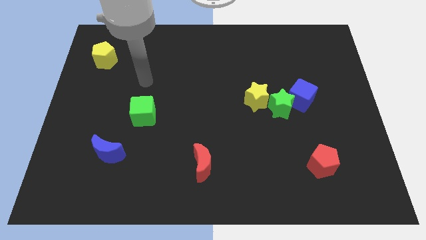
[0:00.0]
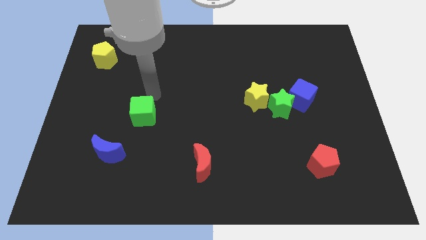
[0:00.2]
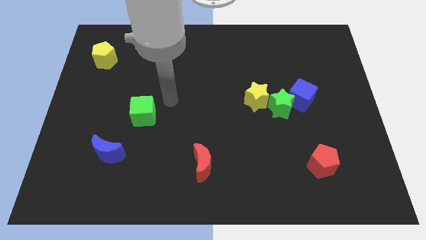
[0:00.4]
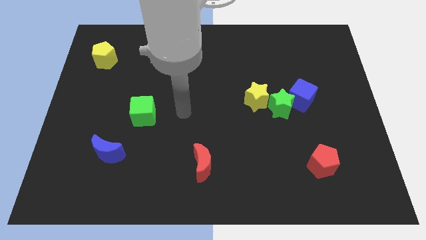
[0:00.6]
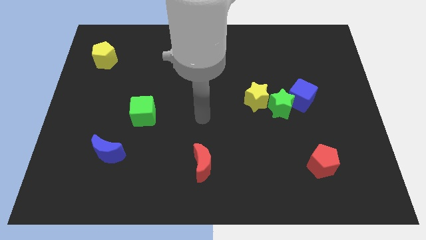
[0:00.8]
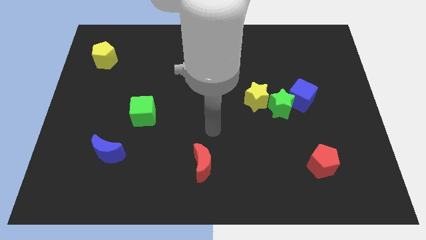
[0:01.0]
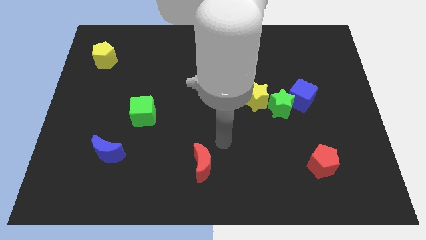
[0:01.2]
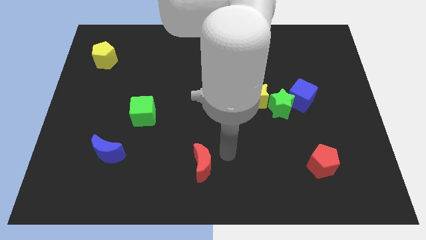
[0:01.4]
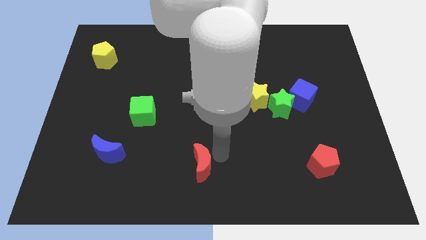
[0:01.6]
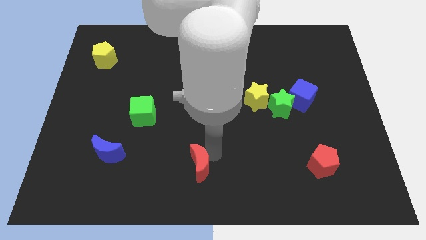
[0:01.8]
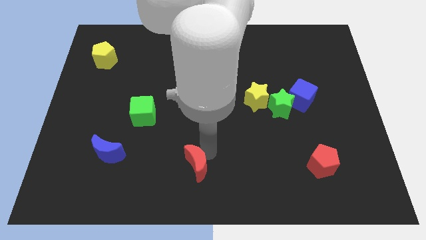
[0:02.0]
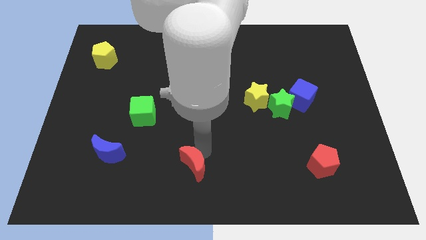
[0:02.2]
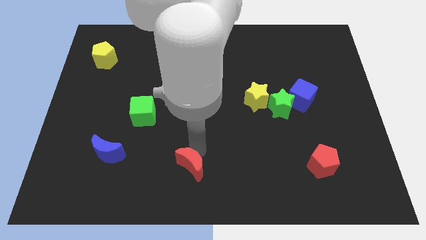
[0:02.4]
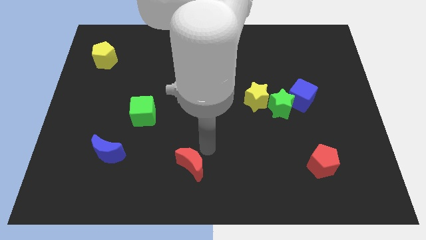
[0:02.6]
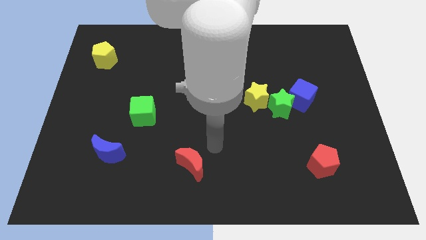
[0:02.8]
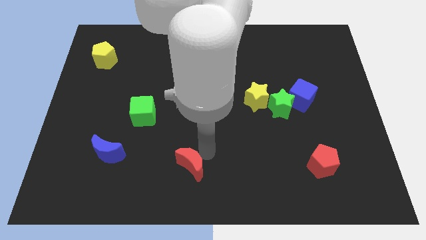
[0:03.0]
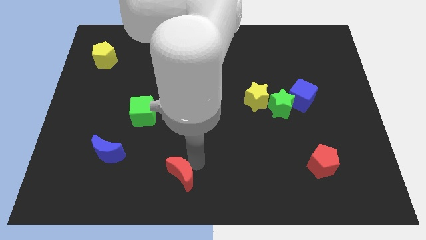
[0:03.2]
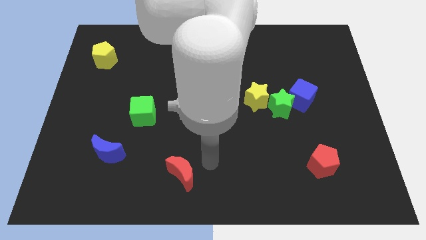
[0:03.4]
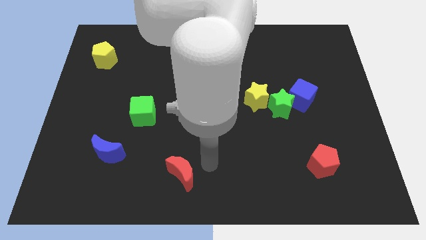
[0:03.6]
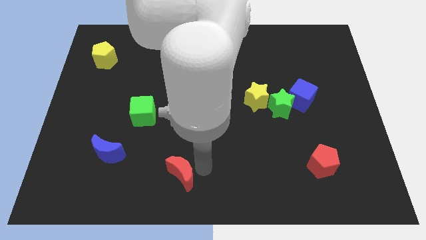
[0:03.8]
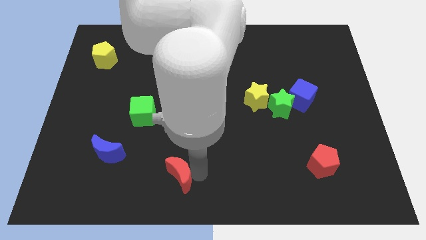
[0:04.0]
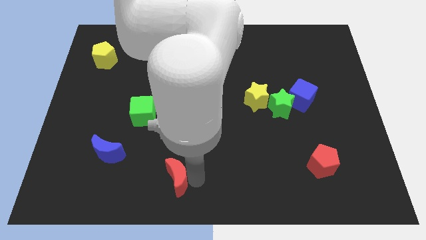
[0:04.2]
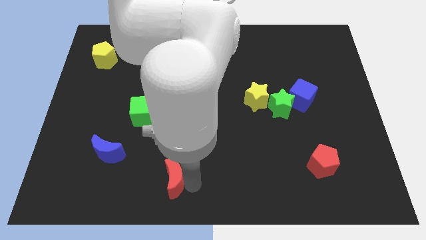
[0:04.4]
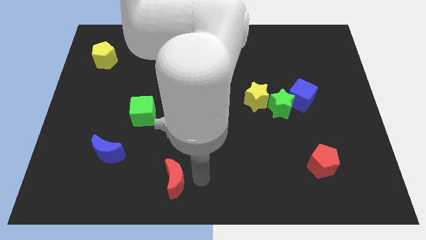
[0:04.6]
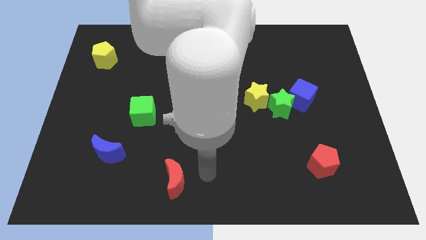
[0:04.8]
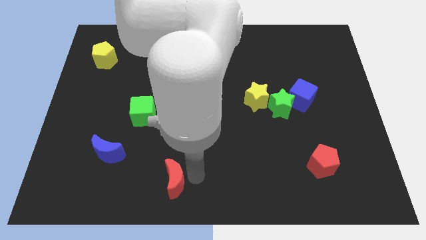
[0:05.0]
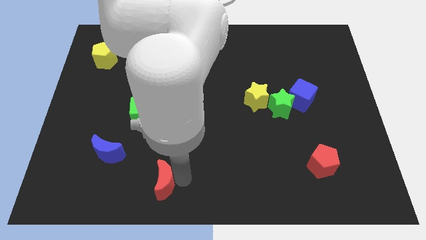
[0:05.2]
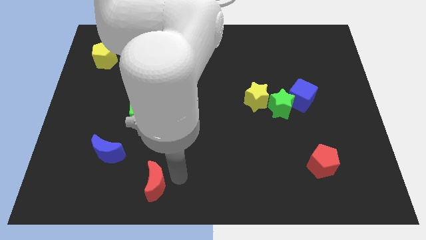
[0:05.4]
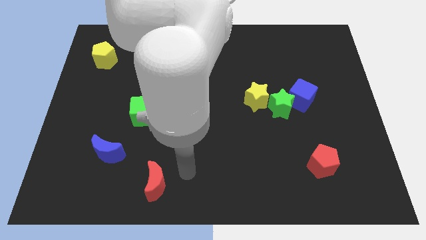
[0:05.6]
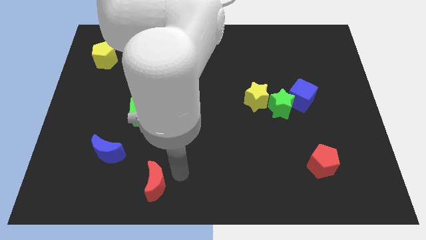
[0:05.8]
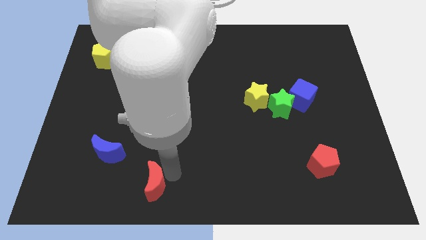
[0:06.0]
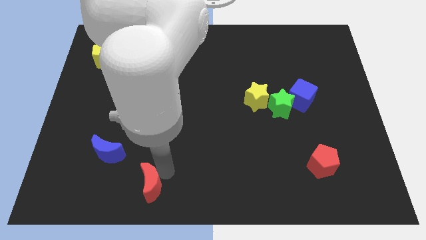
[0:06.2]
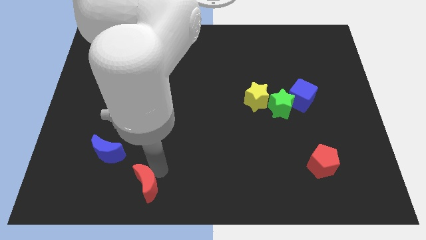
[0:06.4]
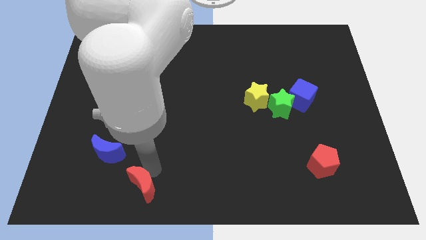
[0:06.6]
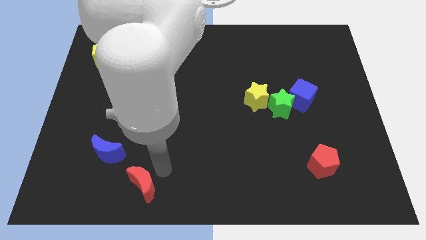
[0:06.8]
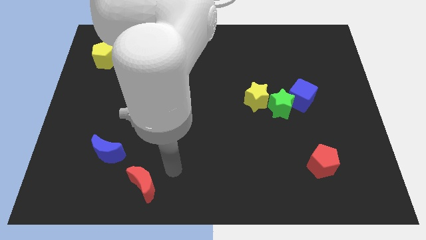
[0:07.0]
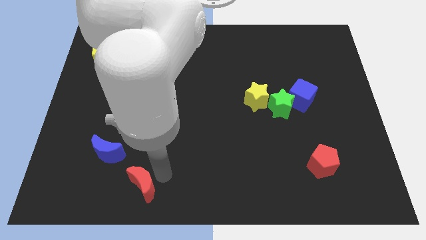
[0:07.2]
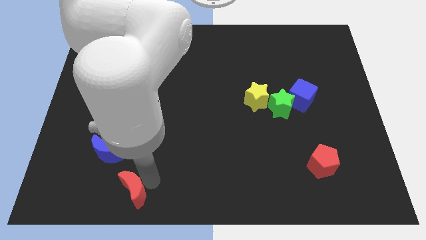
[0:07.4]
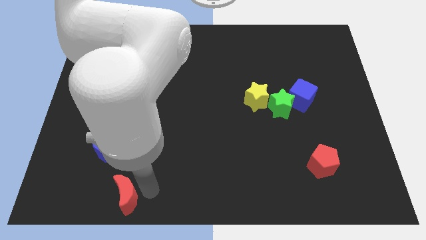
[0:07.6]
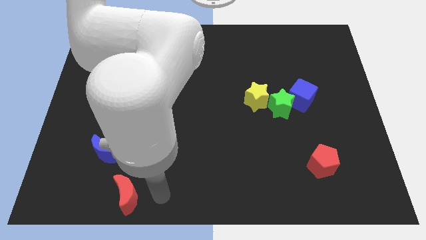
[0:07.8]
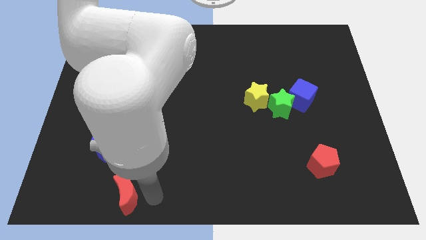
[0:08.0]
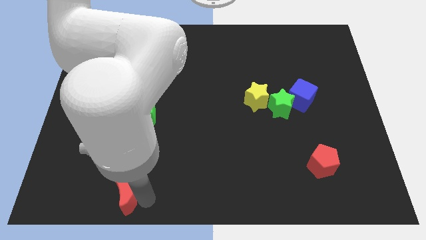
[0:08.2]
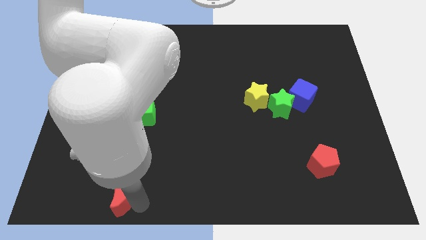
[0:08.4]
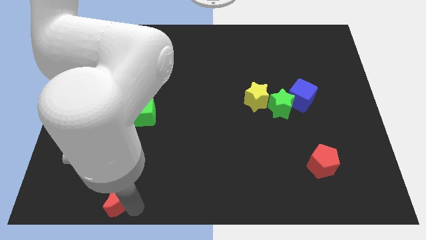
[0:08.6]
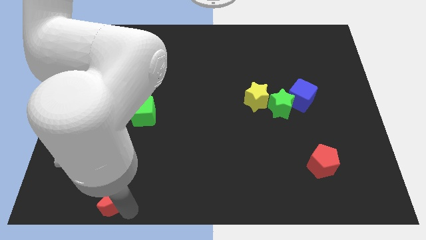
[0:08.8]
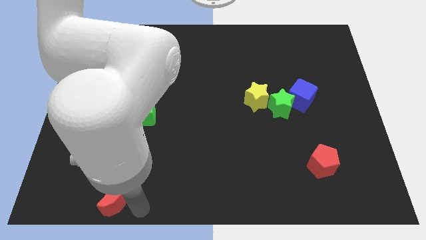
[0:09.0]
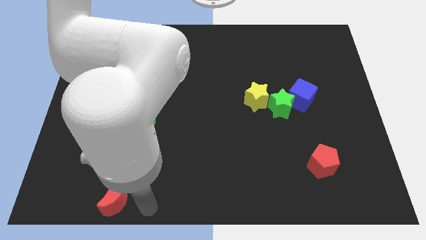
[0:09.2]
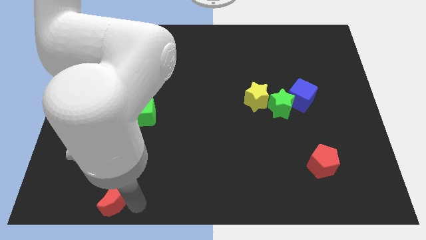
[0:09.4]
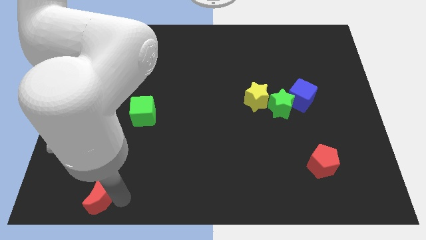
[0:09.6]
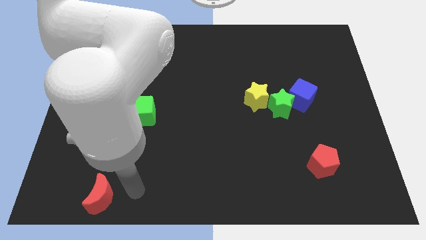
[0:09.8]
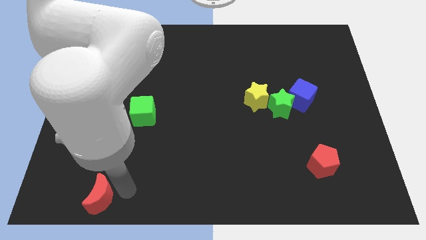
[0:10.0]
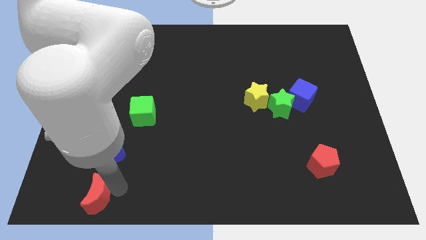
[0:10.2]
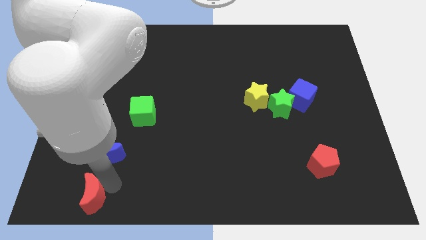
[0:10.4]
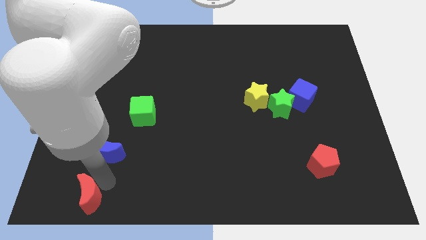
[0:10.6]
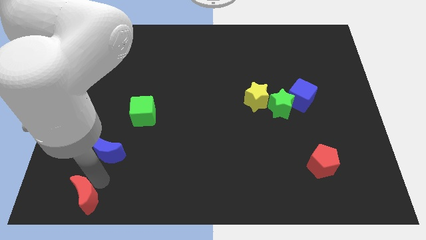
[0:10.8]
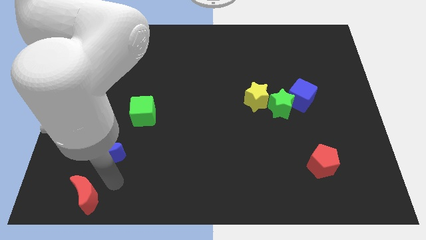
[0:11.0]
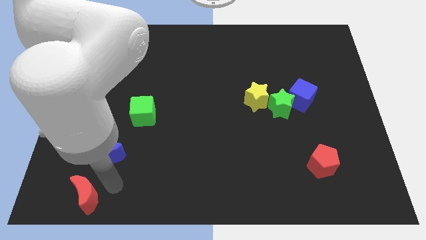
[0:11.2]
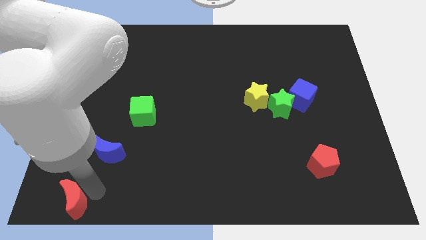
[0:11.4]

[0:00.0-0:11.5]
push the red moon to the lower left corner

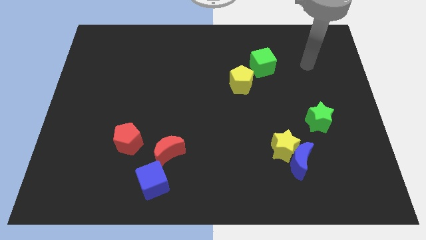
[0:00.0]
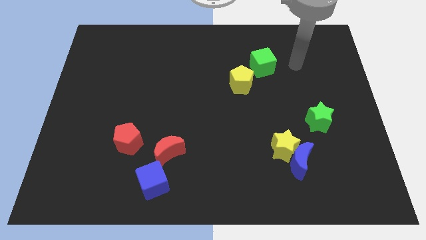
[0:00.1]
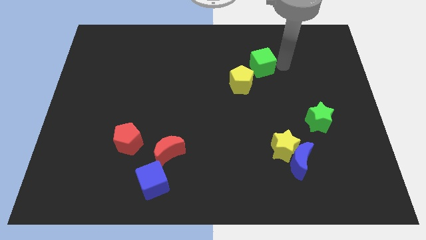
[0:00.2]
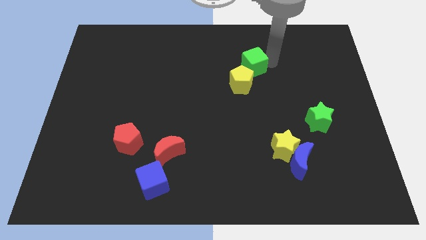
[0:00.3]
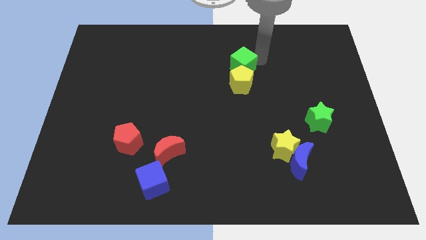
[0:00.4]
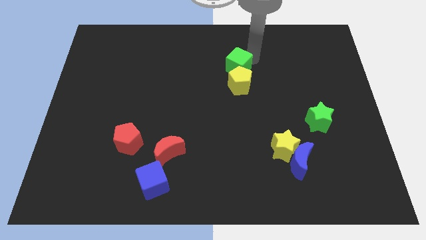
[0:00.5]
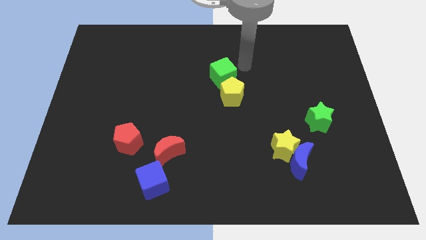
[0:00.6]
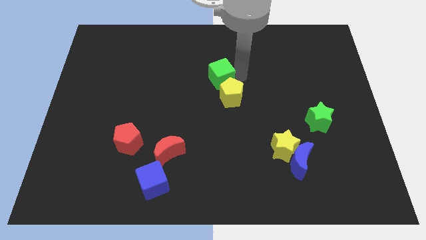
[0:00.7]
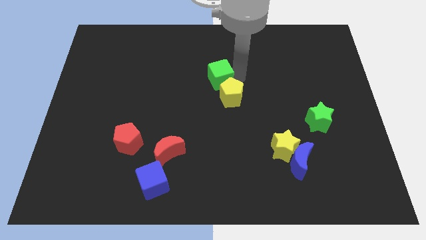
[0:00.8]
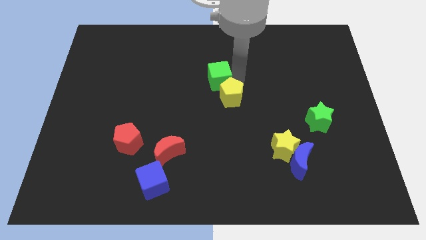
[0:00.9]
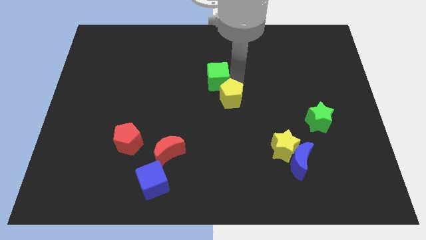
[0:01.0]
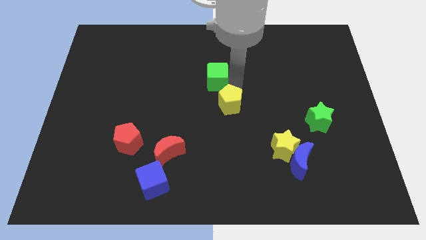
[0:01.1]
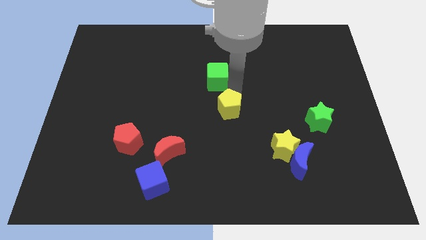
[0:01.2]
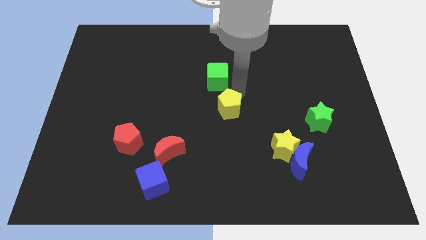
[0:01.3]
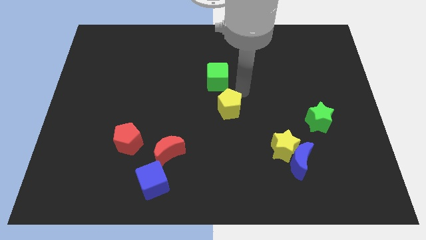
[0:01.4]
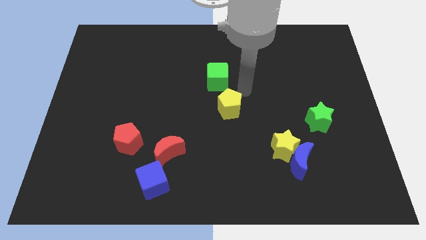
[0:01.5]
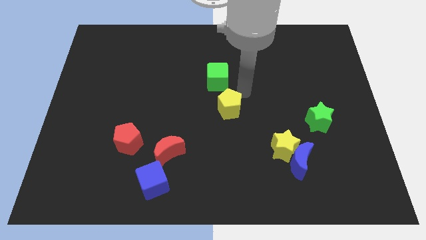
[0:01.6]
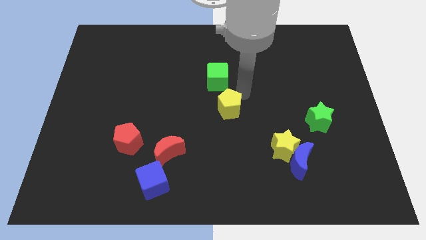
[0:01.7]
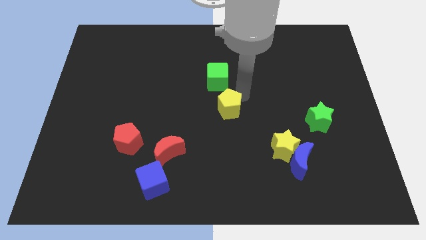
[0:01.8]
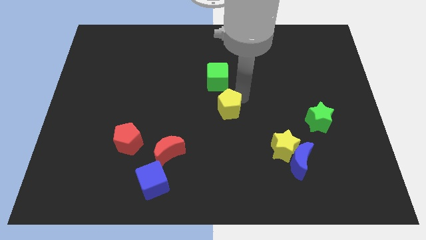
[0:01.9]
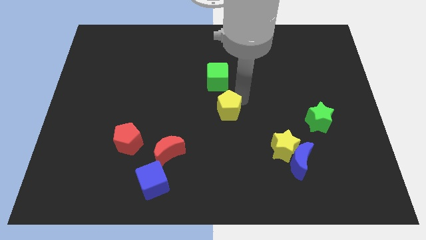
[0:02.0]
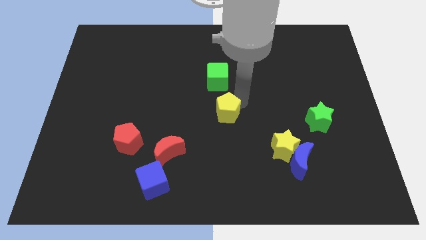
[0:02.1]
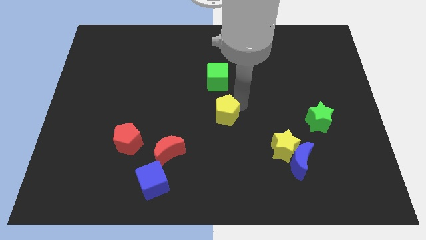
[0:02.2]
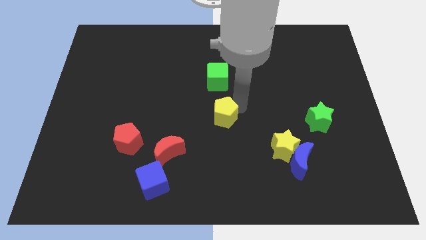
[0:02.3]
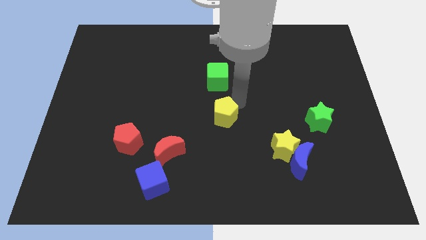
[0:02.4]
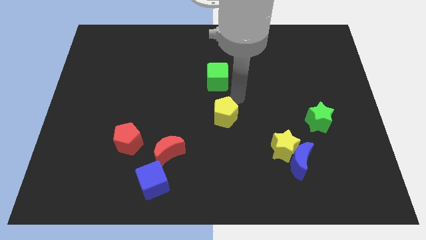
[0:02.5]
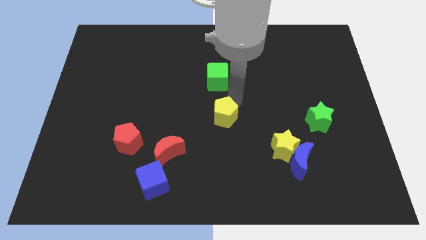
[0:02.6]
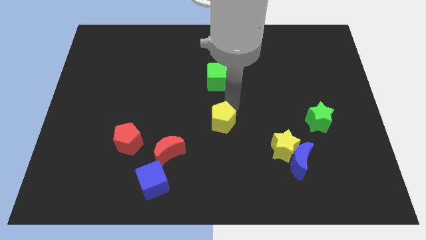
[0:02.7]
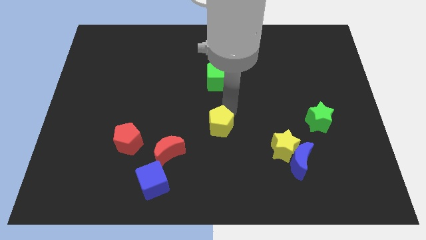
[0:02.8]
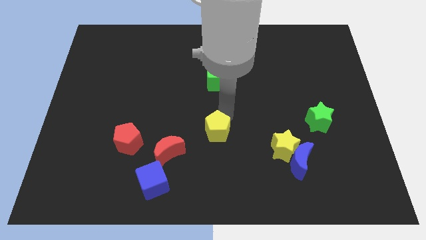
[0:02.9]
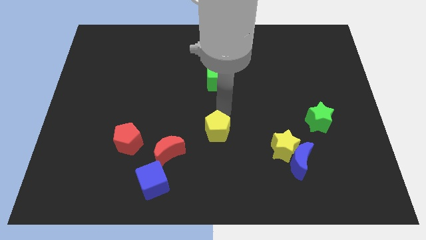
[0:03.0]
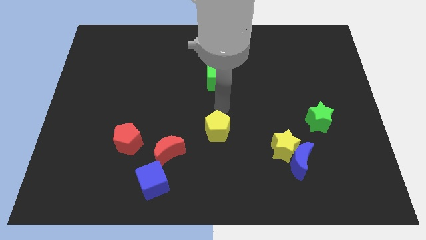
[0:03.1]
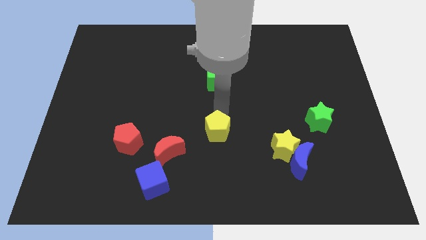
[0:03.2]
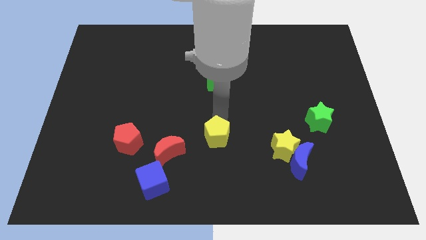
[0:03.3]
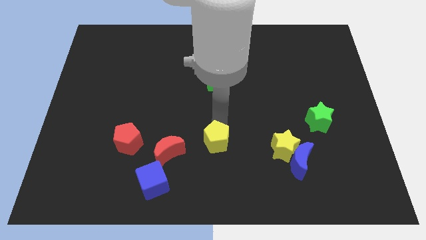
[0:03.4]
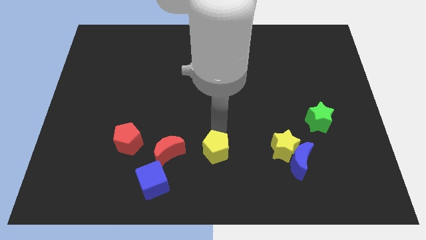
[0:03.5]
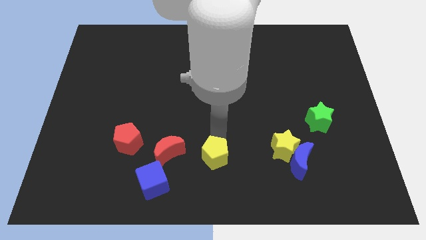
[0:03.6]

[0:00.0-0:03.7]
push the yellow pentagon to the bottom side
